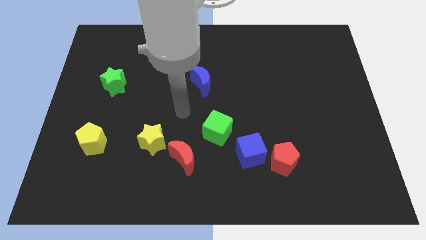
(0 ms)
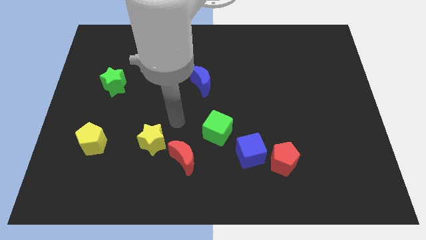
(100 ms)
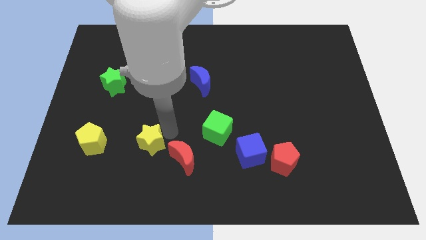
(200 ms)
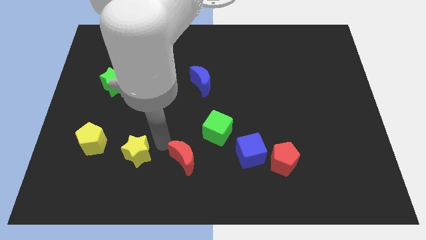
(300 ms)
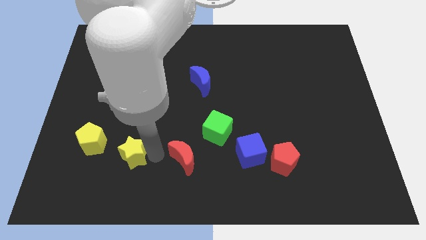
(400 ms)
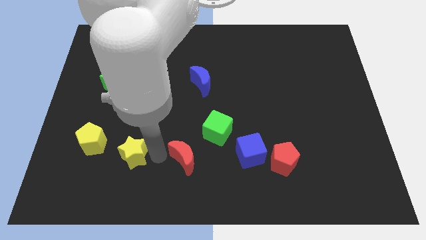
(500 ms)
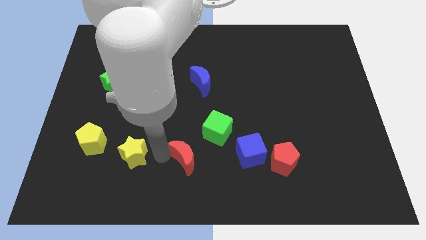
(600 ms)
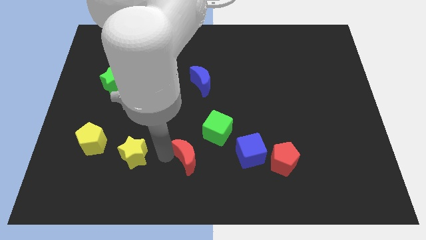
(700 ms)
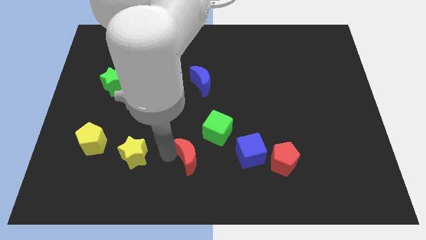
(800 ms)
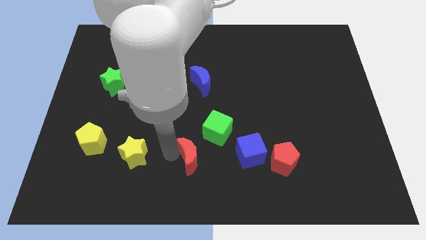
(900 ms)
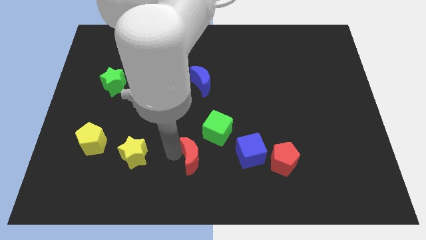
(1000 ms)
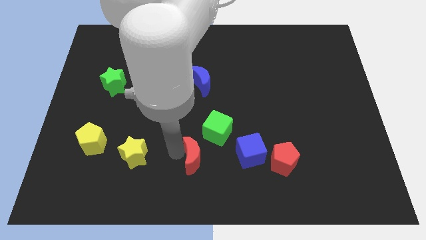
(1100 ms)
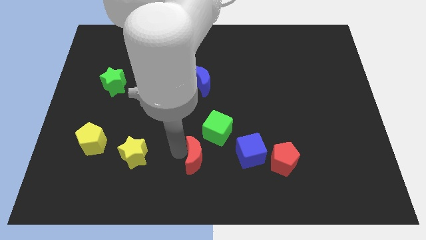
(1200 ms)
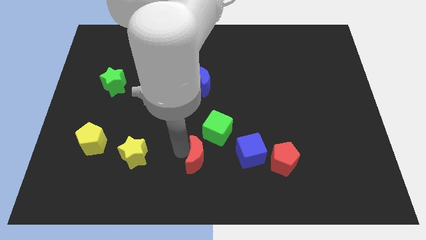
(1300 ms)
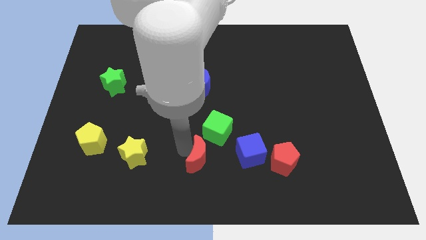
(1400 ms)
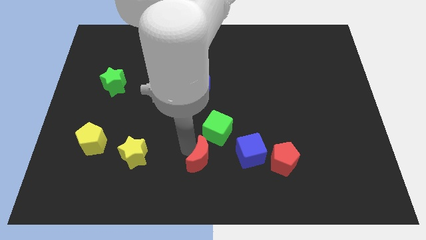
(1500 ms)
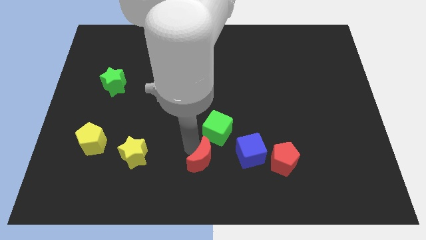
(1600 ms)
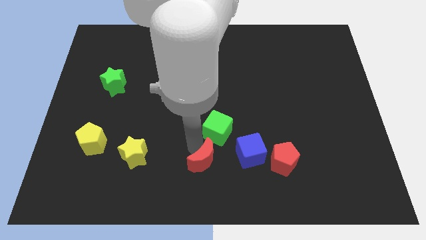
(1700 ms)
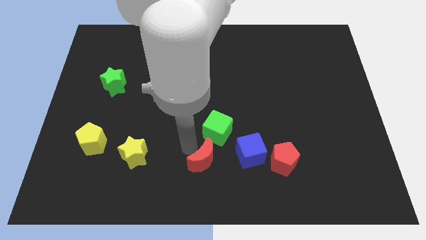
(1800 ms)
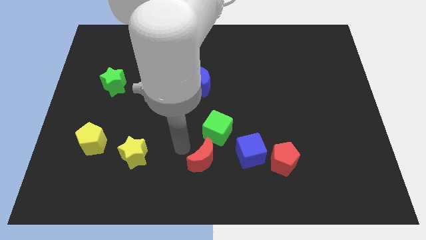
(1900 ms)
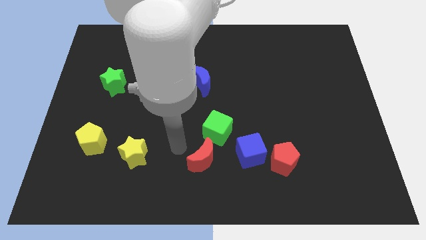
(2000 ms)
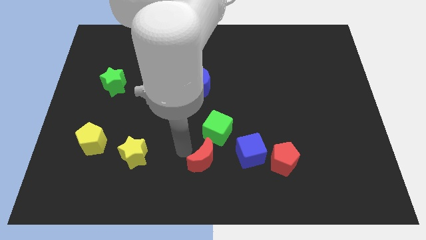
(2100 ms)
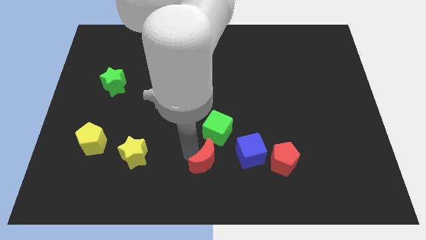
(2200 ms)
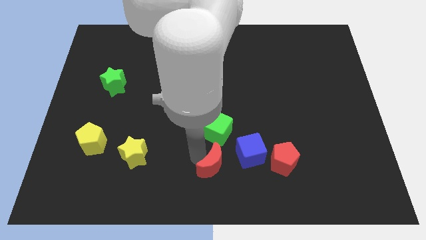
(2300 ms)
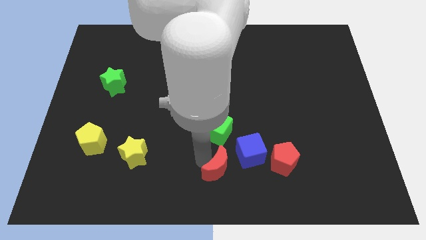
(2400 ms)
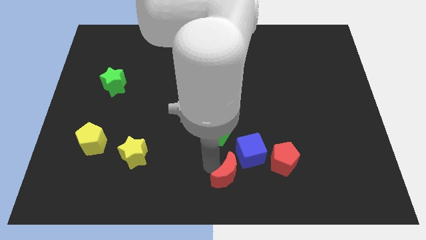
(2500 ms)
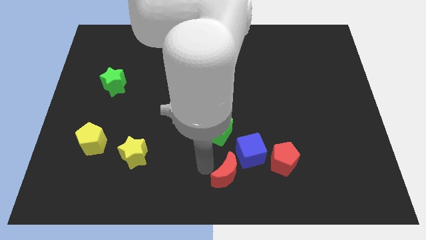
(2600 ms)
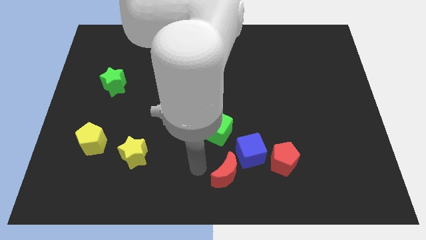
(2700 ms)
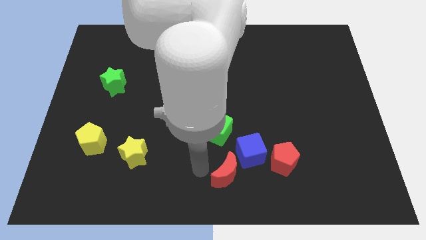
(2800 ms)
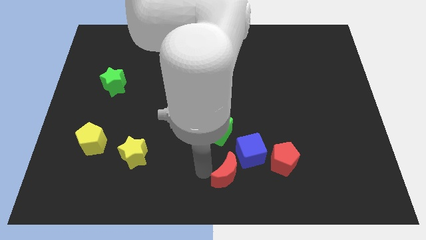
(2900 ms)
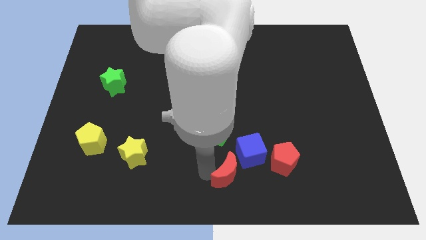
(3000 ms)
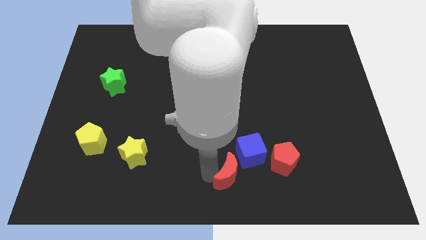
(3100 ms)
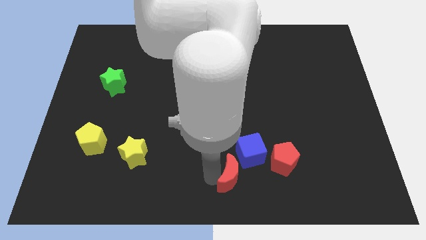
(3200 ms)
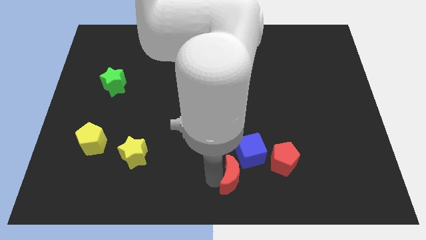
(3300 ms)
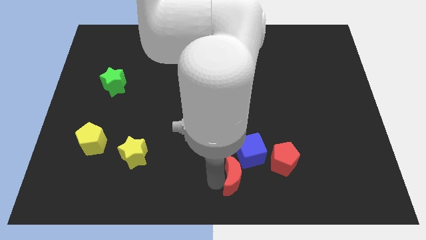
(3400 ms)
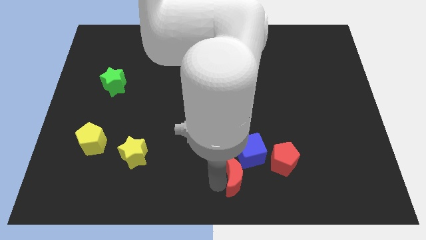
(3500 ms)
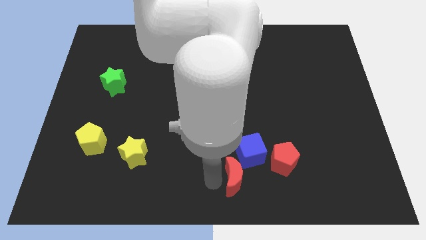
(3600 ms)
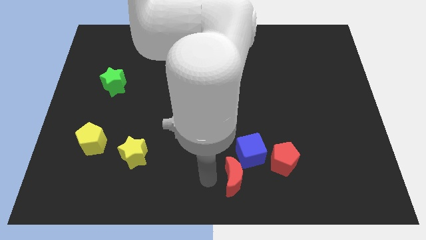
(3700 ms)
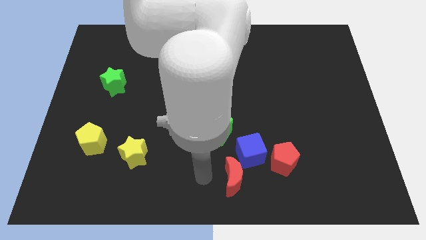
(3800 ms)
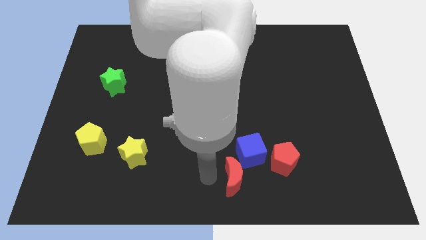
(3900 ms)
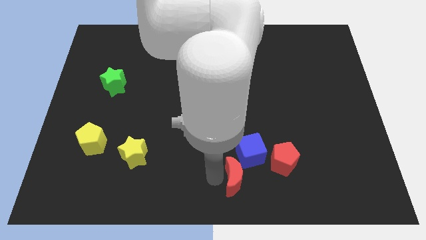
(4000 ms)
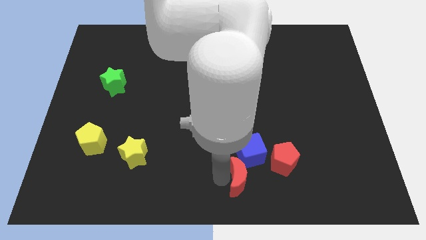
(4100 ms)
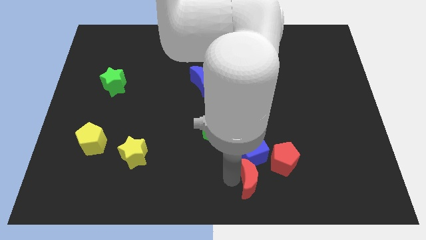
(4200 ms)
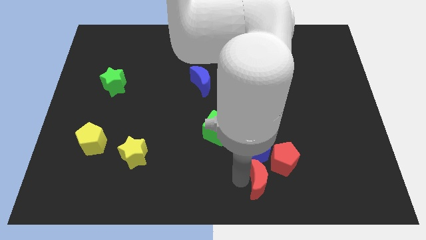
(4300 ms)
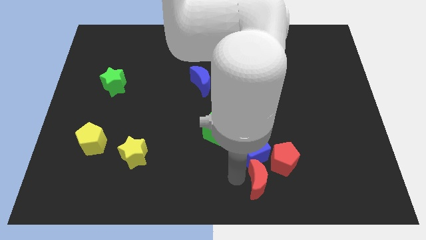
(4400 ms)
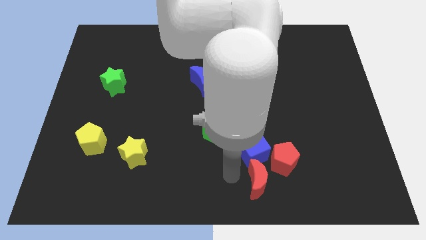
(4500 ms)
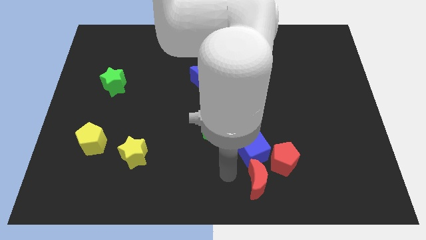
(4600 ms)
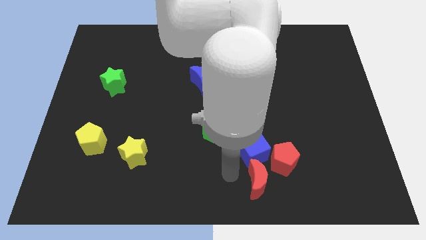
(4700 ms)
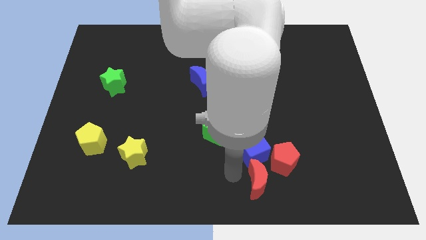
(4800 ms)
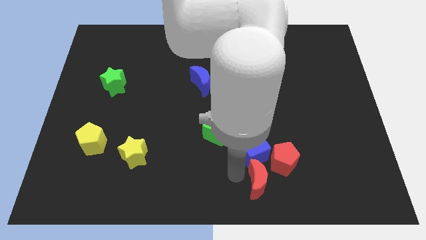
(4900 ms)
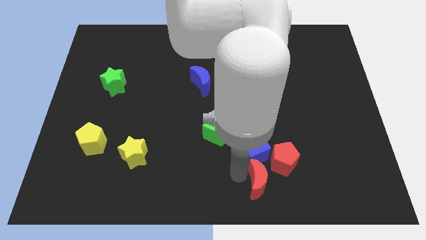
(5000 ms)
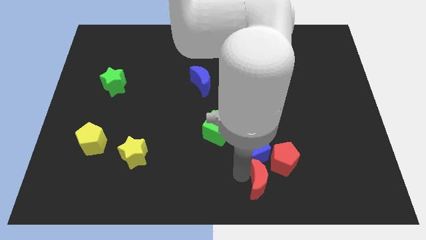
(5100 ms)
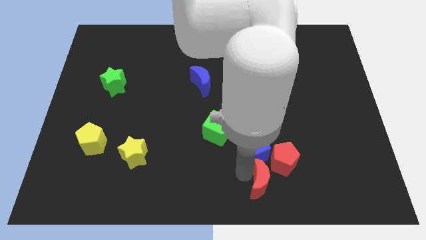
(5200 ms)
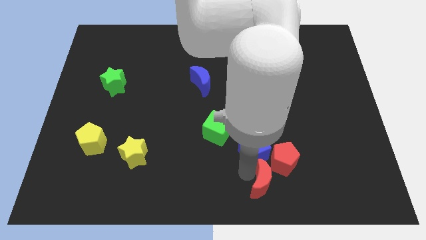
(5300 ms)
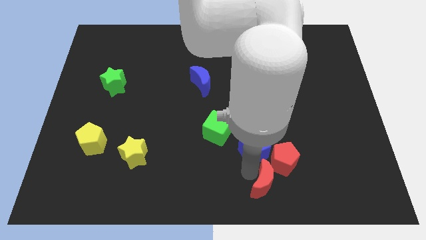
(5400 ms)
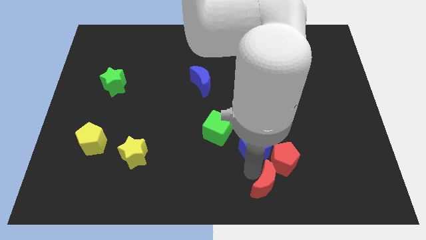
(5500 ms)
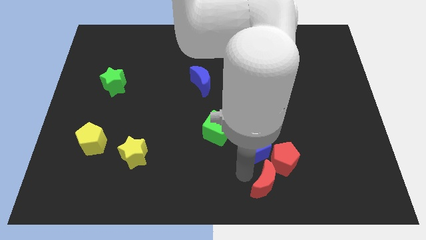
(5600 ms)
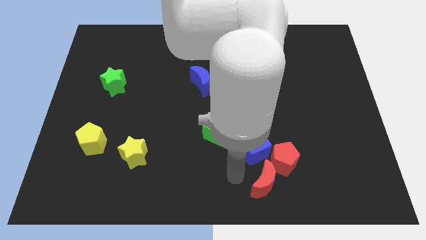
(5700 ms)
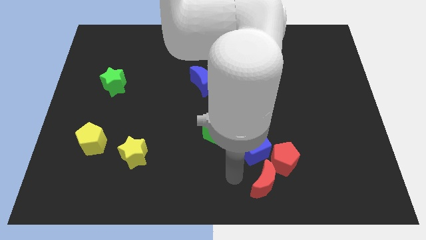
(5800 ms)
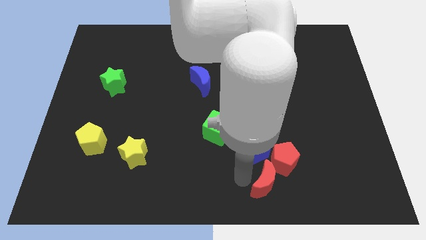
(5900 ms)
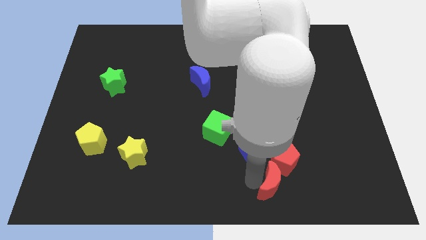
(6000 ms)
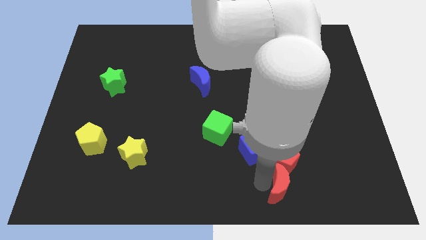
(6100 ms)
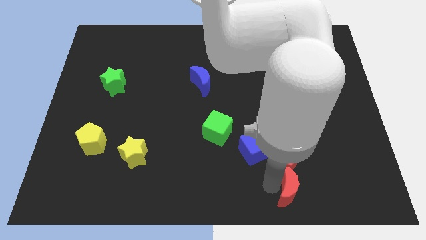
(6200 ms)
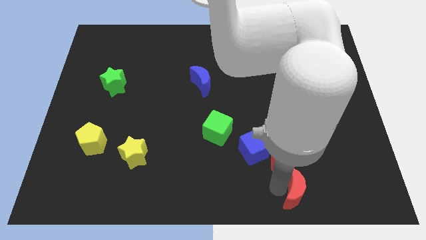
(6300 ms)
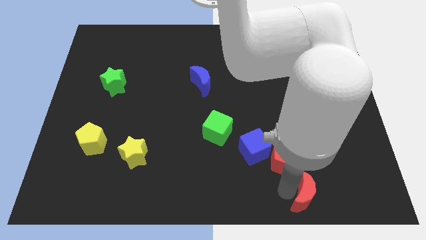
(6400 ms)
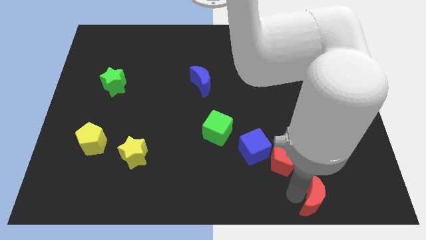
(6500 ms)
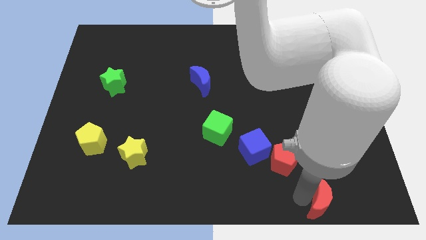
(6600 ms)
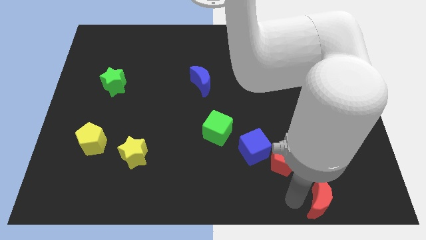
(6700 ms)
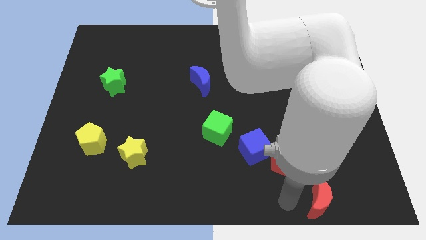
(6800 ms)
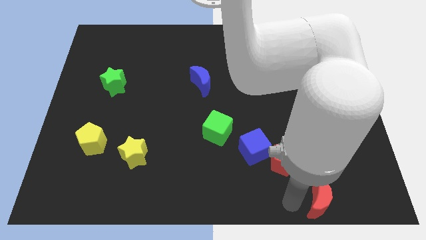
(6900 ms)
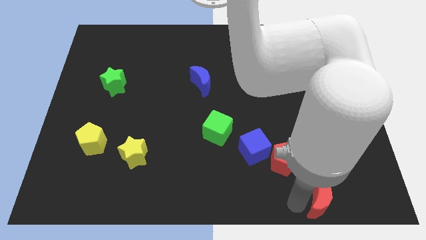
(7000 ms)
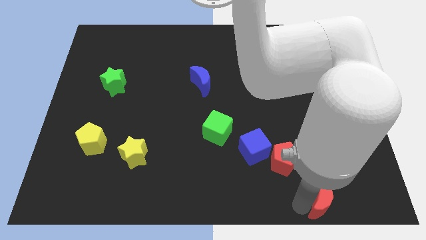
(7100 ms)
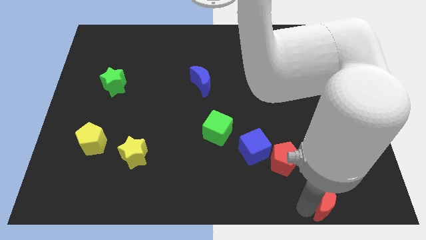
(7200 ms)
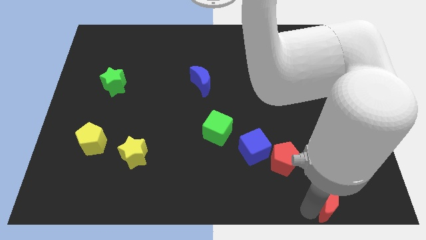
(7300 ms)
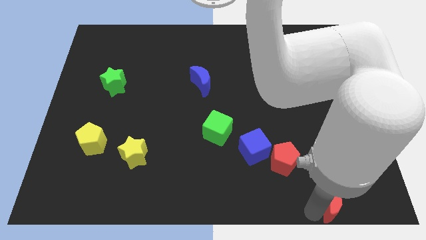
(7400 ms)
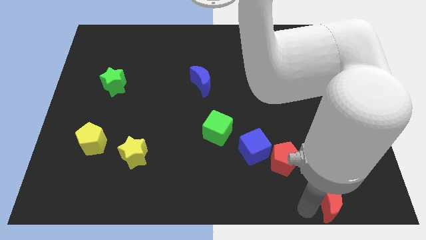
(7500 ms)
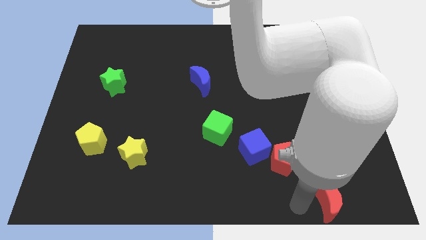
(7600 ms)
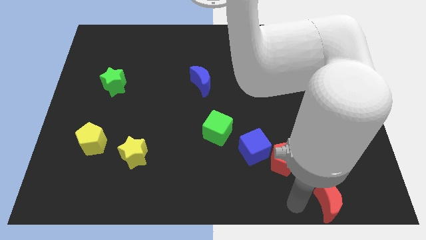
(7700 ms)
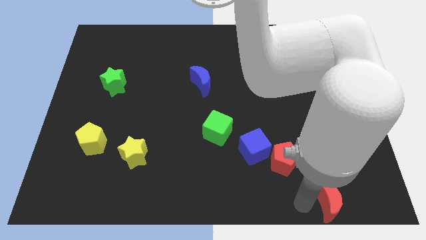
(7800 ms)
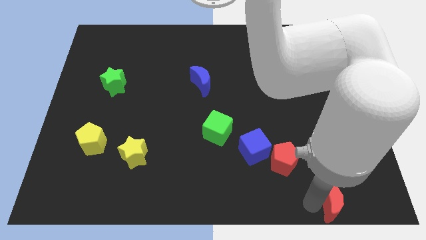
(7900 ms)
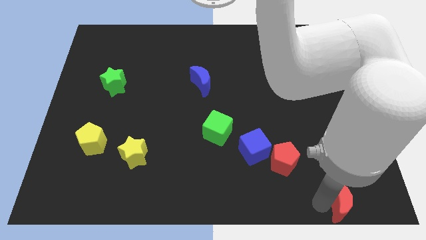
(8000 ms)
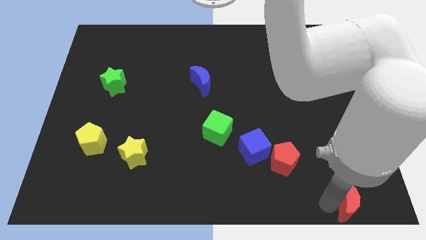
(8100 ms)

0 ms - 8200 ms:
put the red moon to the bottom right corner
